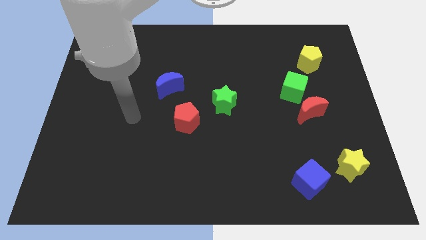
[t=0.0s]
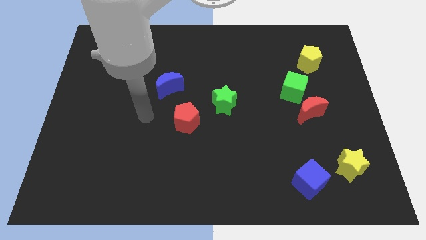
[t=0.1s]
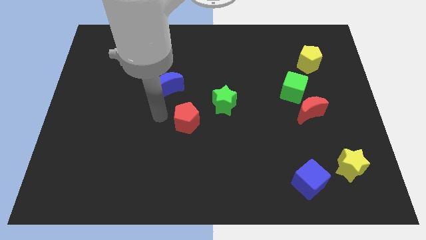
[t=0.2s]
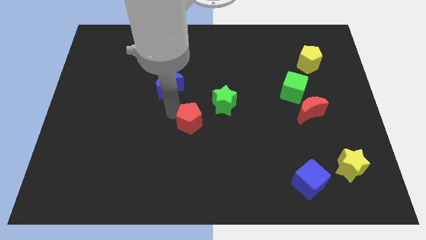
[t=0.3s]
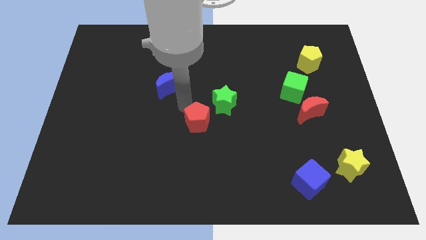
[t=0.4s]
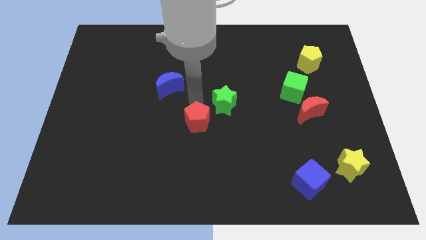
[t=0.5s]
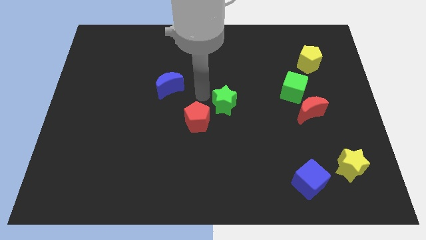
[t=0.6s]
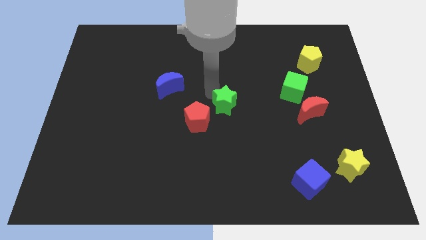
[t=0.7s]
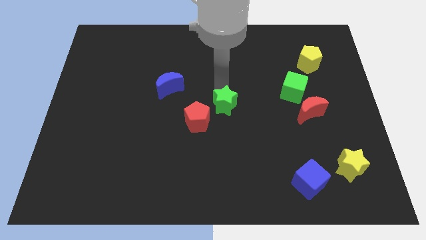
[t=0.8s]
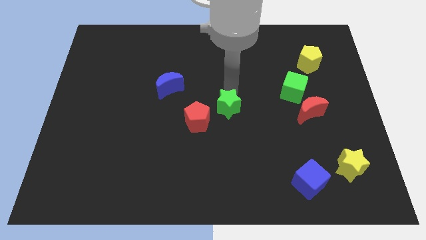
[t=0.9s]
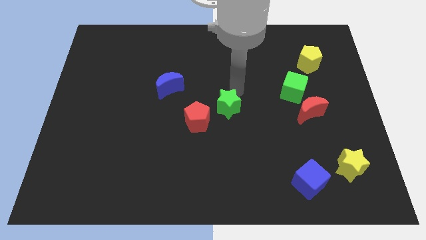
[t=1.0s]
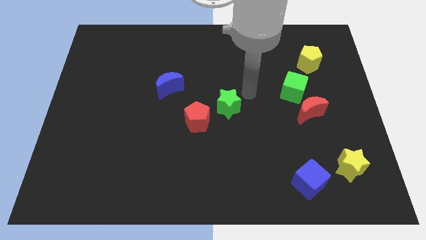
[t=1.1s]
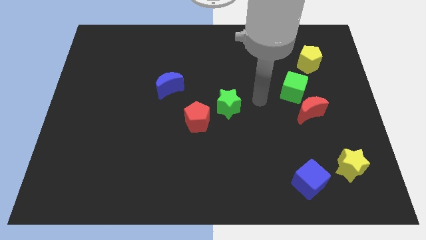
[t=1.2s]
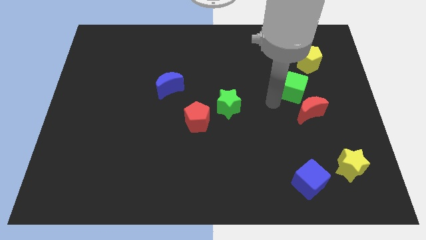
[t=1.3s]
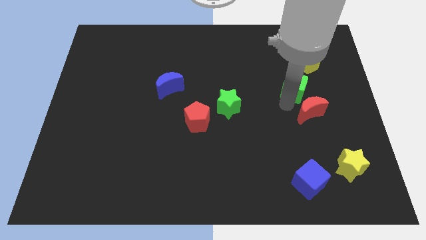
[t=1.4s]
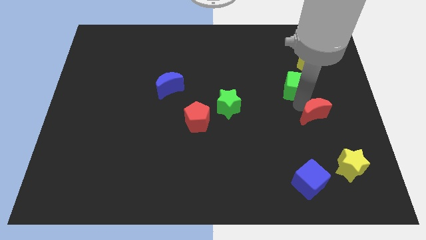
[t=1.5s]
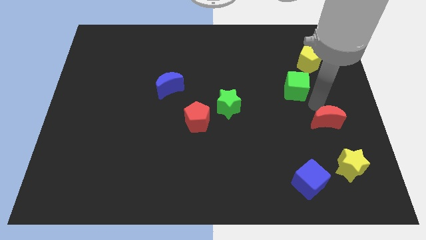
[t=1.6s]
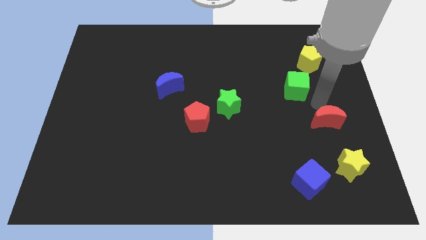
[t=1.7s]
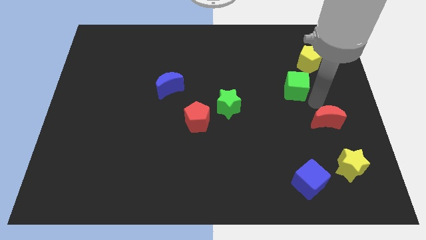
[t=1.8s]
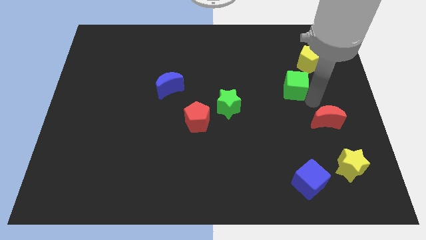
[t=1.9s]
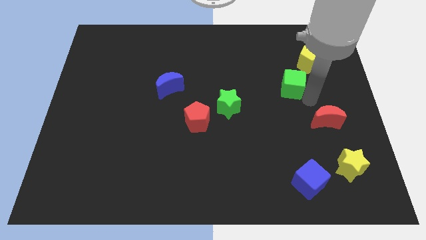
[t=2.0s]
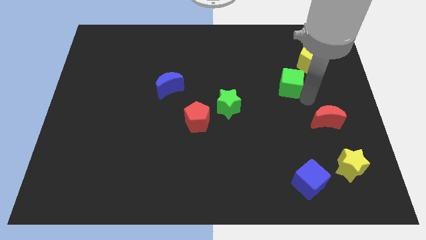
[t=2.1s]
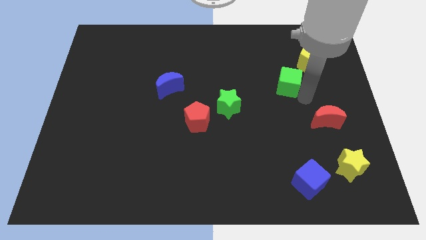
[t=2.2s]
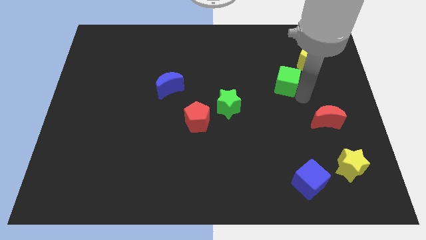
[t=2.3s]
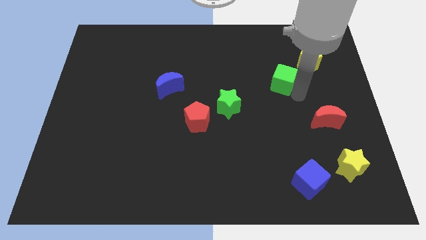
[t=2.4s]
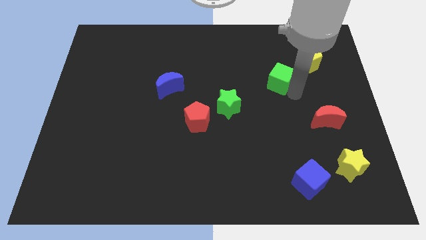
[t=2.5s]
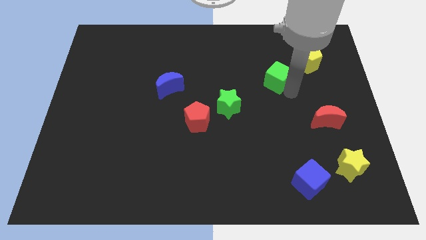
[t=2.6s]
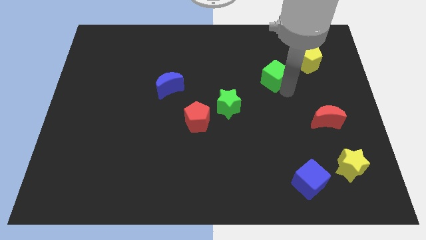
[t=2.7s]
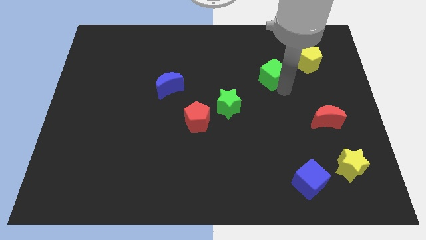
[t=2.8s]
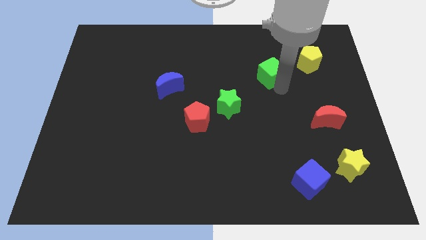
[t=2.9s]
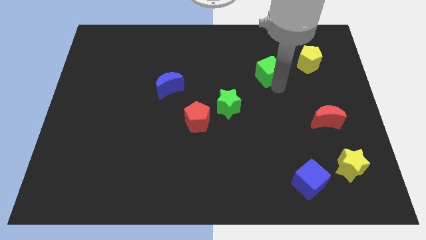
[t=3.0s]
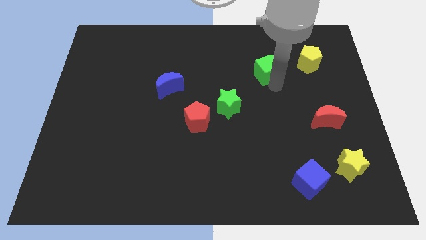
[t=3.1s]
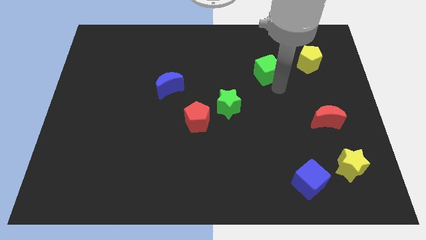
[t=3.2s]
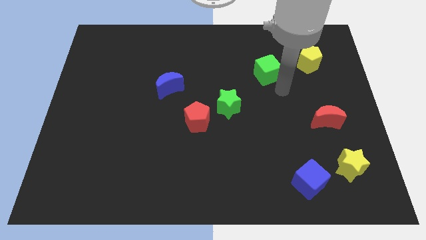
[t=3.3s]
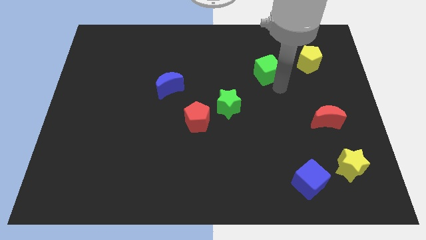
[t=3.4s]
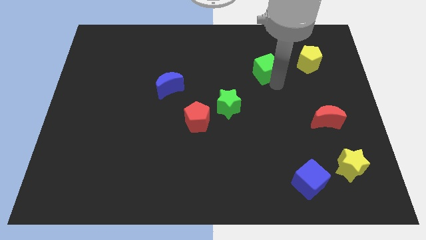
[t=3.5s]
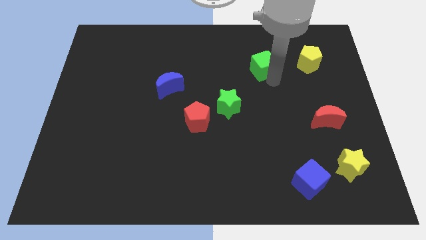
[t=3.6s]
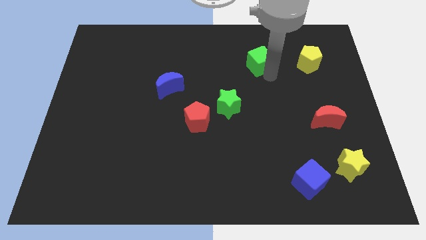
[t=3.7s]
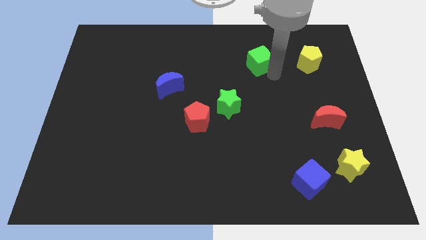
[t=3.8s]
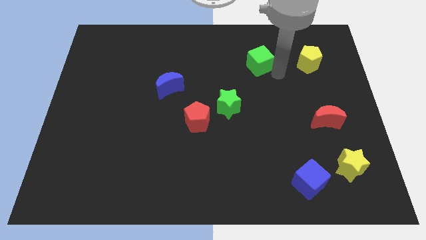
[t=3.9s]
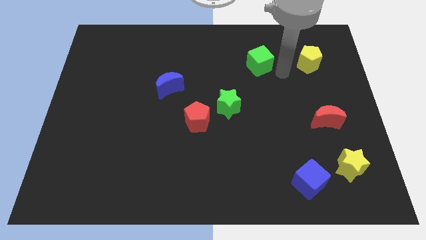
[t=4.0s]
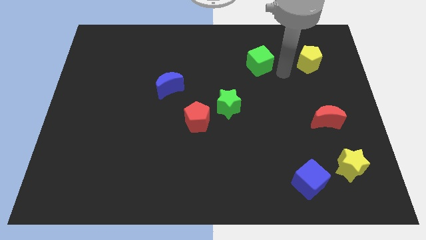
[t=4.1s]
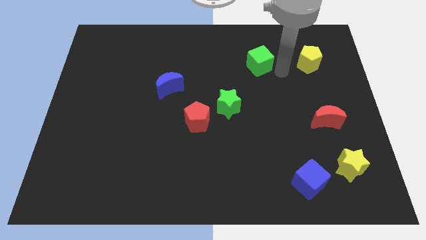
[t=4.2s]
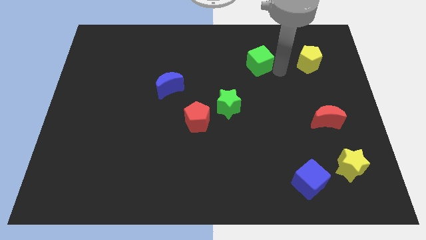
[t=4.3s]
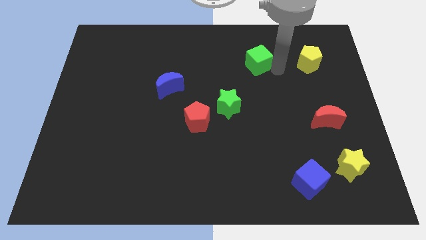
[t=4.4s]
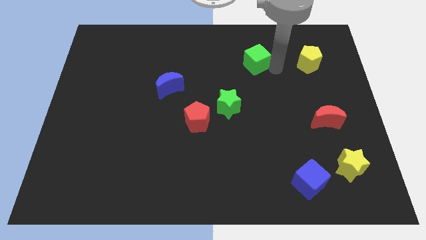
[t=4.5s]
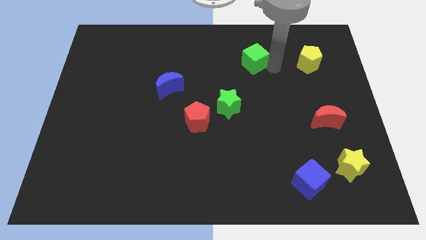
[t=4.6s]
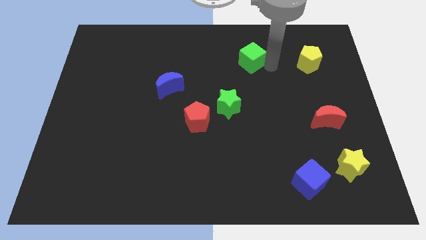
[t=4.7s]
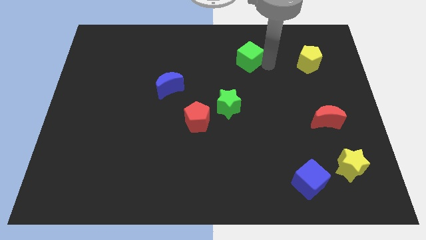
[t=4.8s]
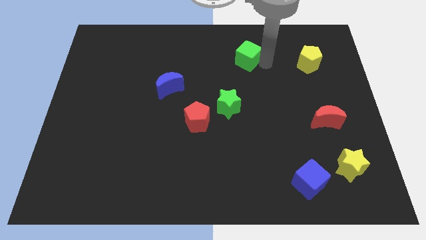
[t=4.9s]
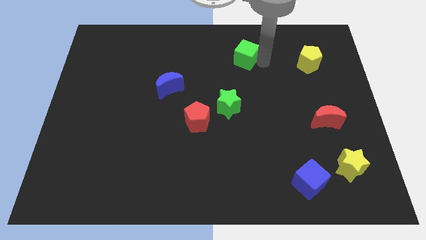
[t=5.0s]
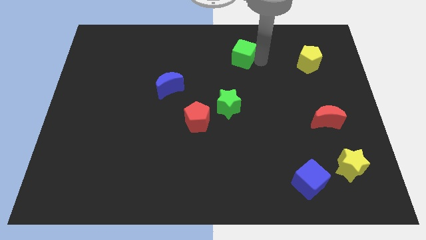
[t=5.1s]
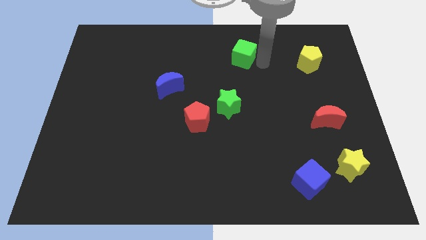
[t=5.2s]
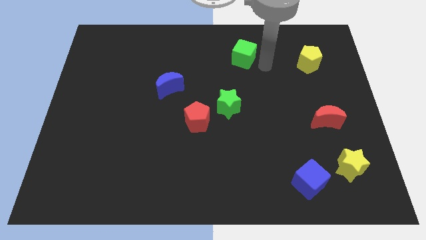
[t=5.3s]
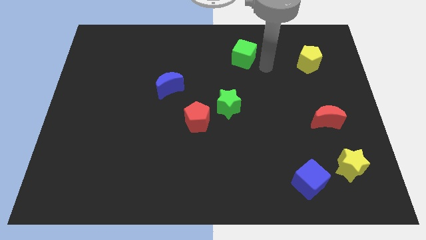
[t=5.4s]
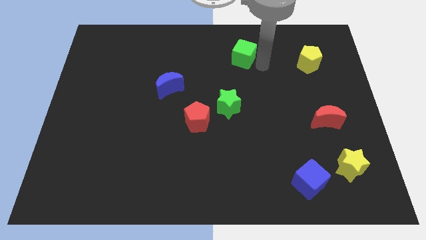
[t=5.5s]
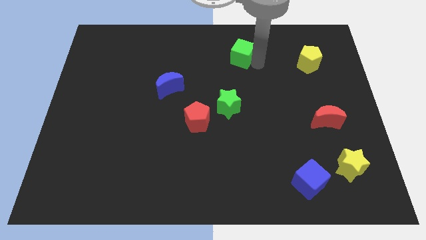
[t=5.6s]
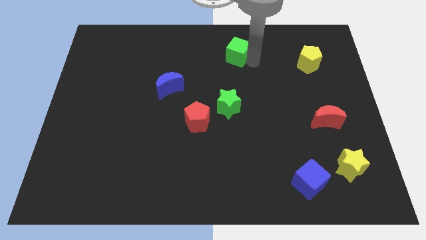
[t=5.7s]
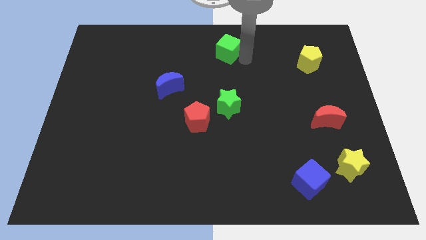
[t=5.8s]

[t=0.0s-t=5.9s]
slide the green cube to the top
